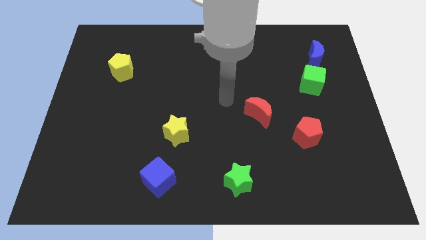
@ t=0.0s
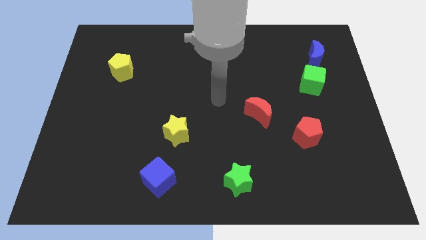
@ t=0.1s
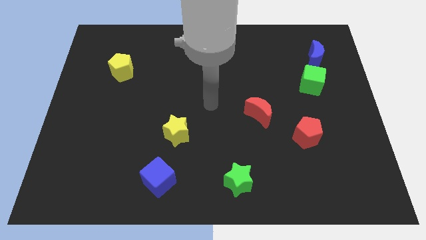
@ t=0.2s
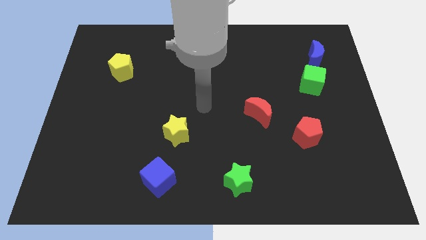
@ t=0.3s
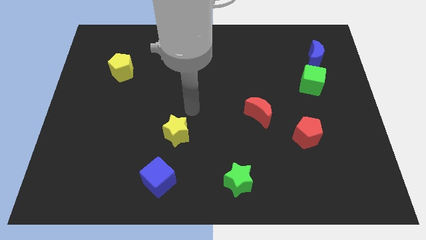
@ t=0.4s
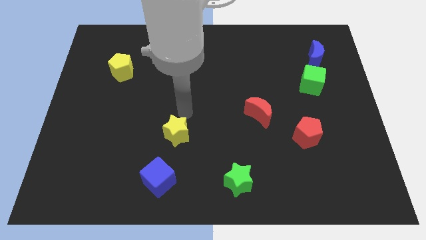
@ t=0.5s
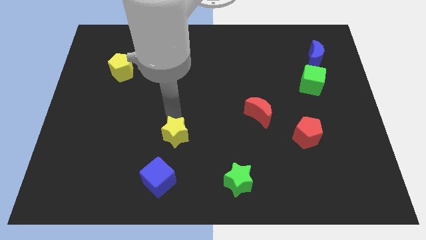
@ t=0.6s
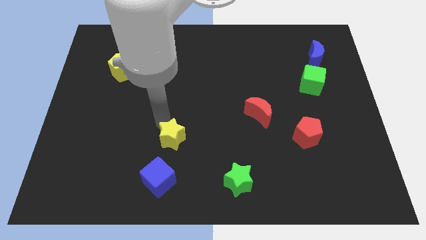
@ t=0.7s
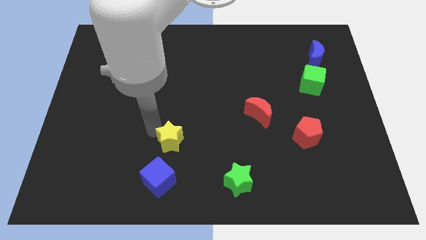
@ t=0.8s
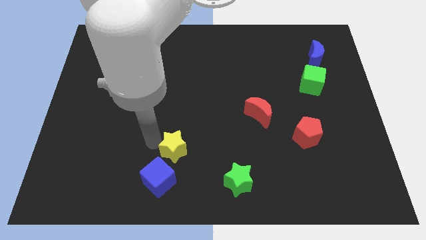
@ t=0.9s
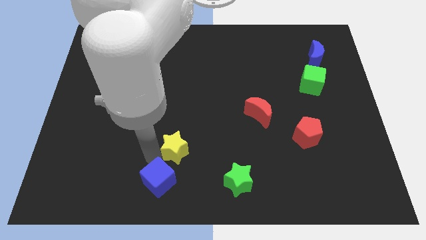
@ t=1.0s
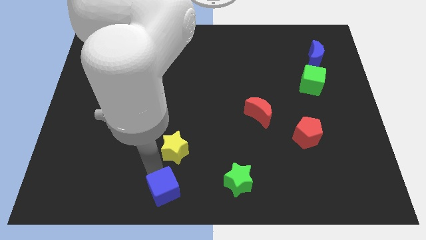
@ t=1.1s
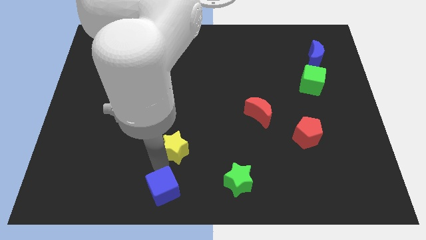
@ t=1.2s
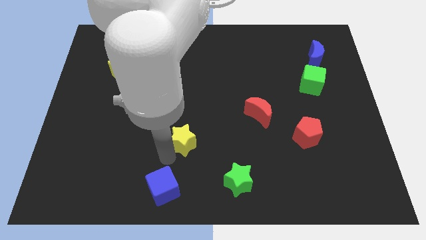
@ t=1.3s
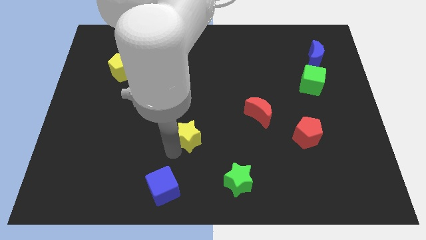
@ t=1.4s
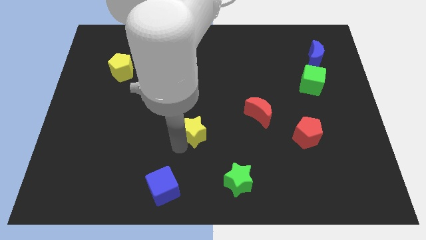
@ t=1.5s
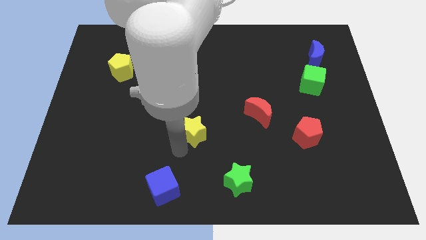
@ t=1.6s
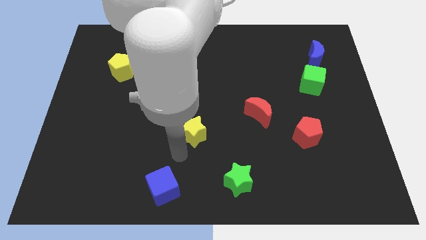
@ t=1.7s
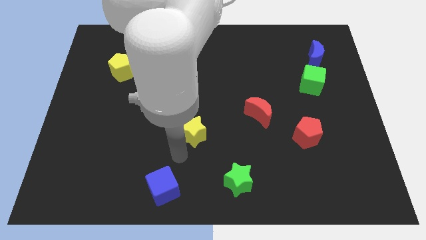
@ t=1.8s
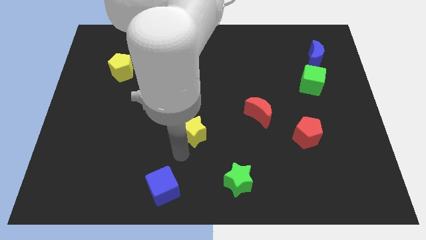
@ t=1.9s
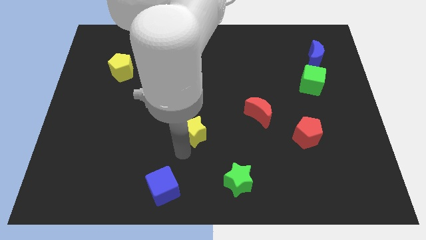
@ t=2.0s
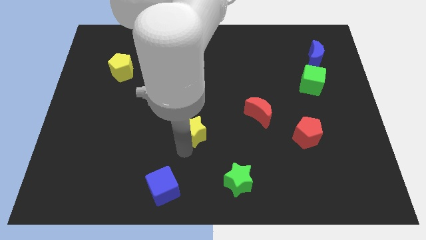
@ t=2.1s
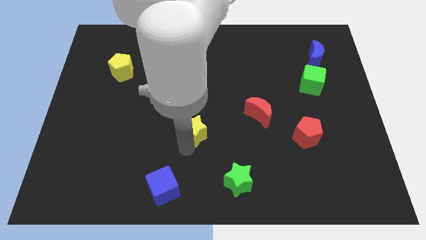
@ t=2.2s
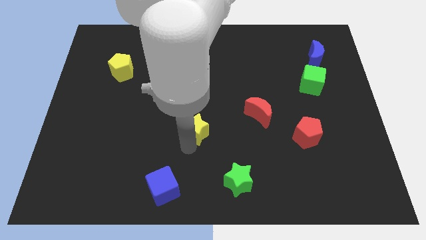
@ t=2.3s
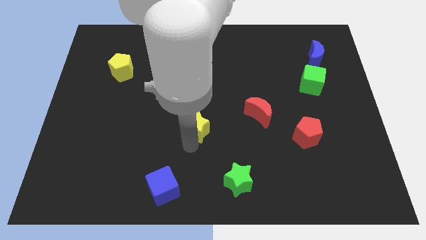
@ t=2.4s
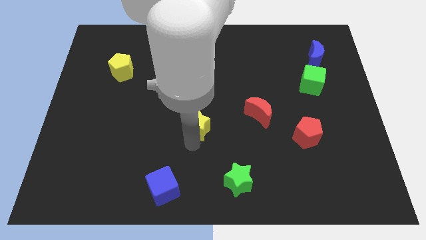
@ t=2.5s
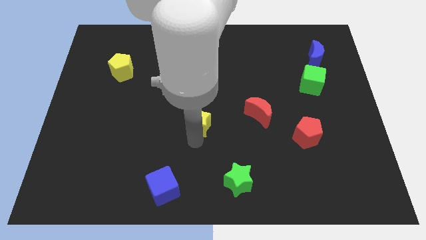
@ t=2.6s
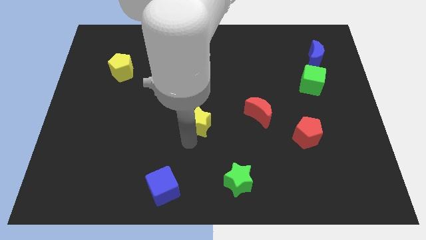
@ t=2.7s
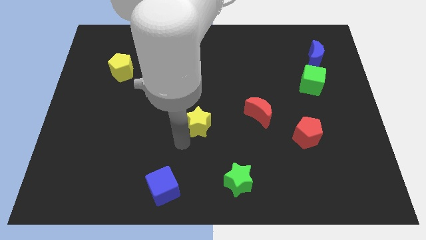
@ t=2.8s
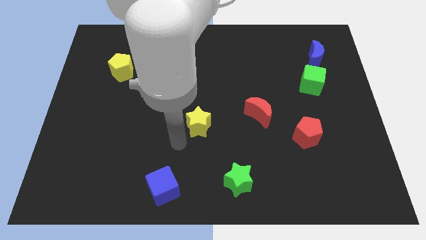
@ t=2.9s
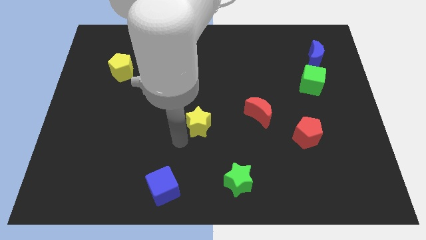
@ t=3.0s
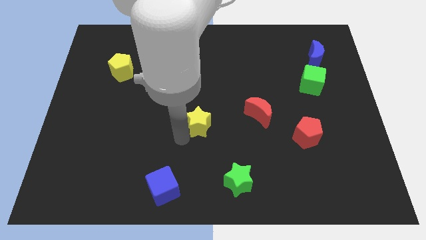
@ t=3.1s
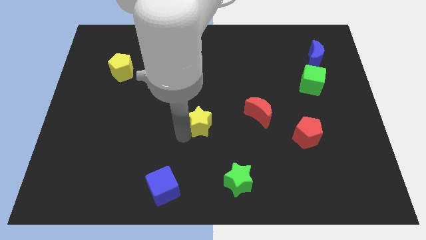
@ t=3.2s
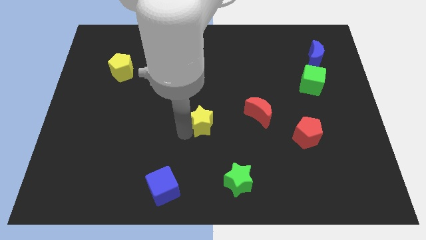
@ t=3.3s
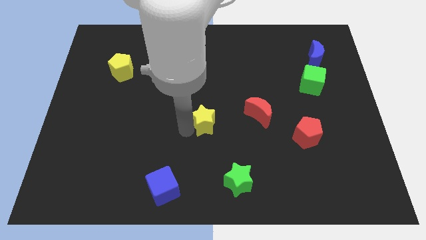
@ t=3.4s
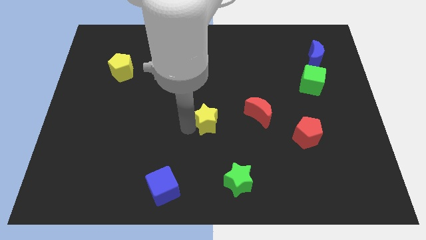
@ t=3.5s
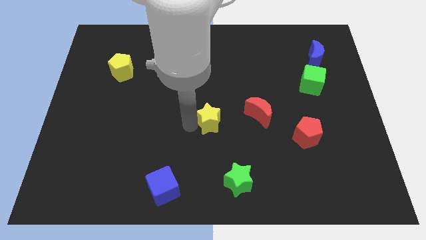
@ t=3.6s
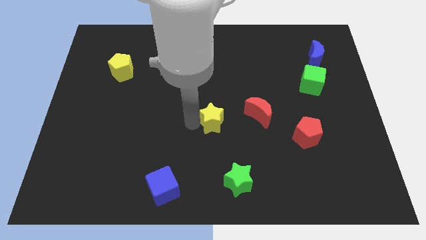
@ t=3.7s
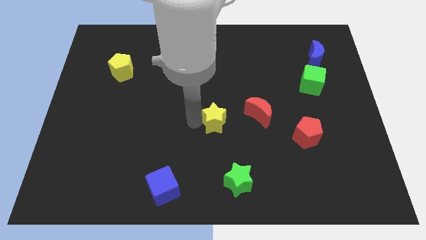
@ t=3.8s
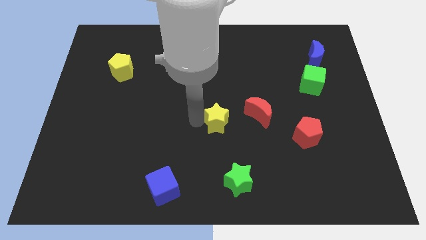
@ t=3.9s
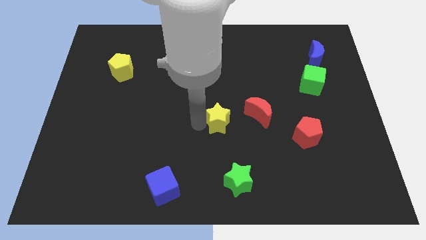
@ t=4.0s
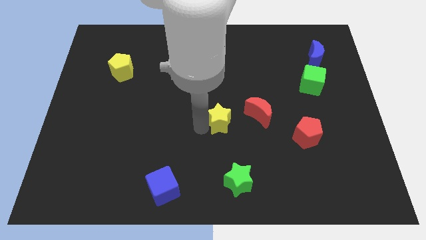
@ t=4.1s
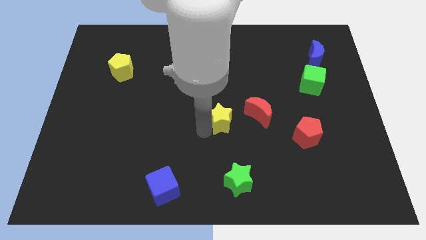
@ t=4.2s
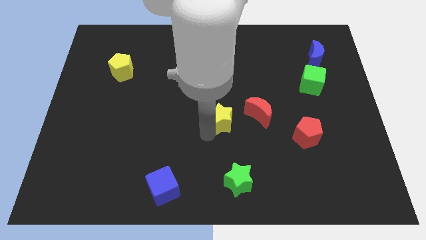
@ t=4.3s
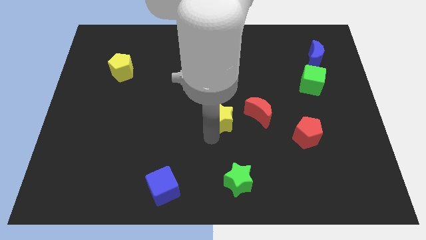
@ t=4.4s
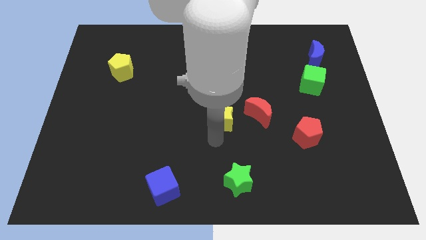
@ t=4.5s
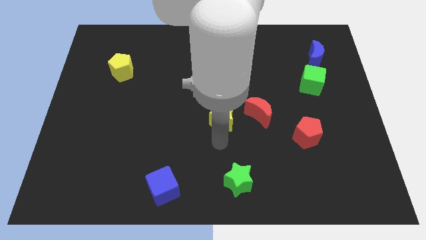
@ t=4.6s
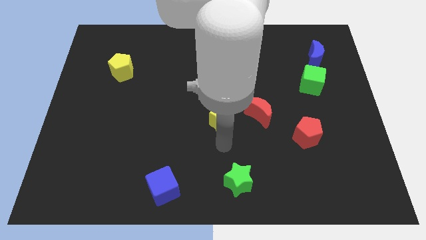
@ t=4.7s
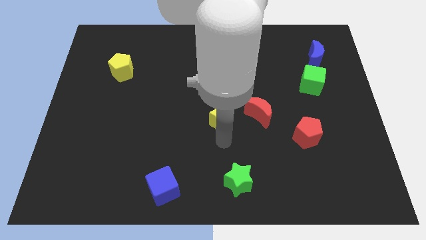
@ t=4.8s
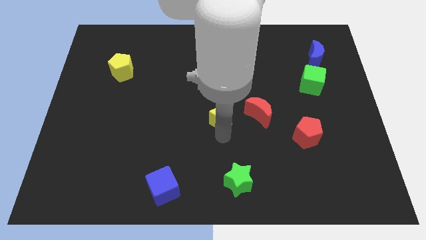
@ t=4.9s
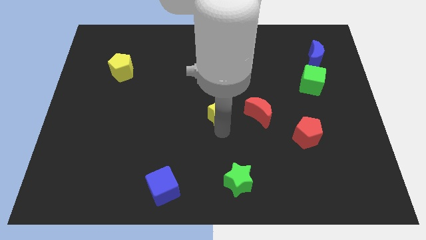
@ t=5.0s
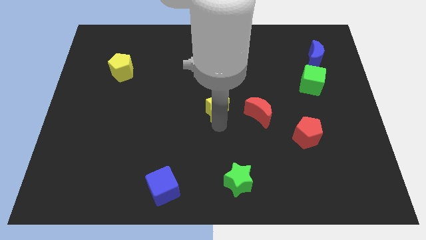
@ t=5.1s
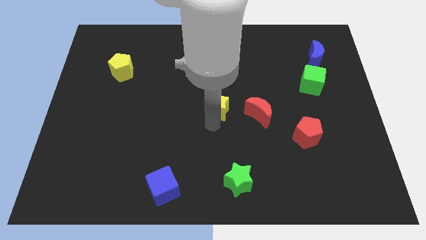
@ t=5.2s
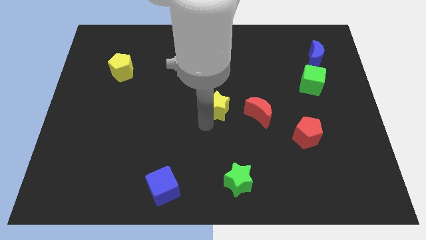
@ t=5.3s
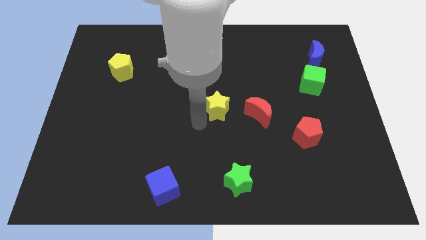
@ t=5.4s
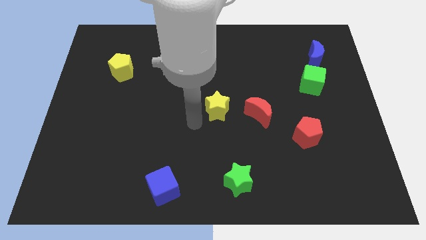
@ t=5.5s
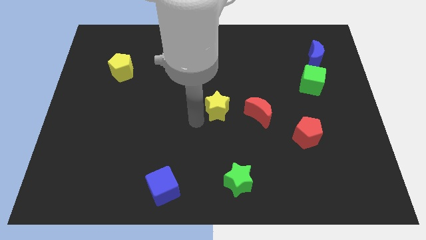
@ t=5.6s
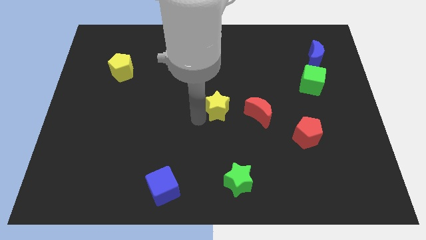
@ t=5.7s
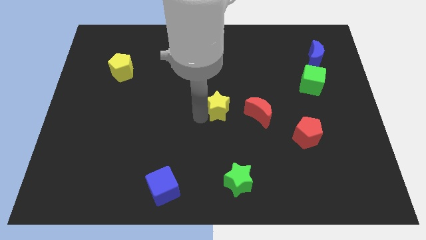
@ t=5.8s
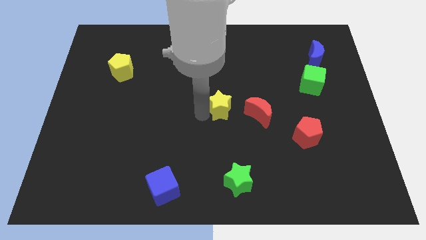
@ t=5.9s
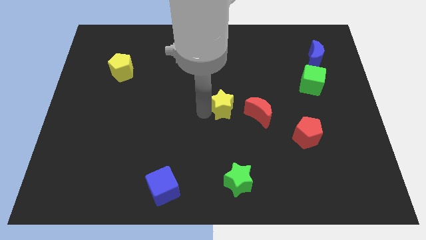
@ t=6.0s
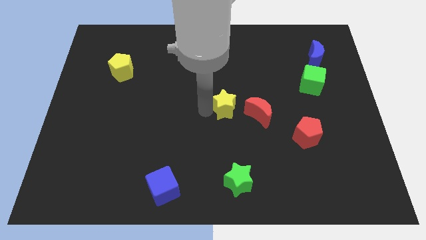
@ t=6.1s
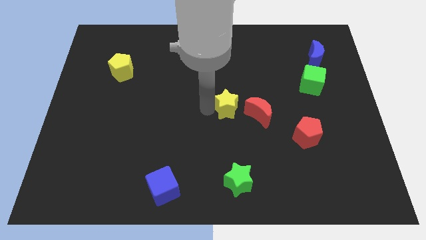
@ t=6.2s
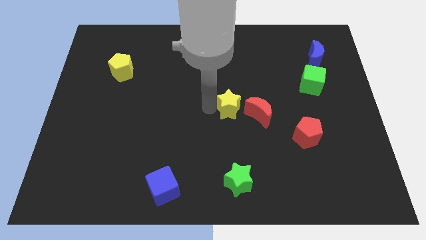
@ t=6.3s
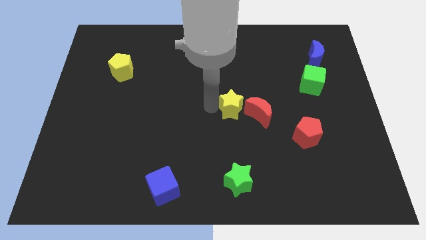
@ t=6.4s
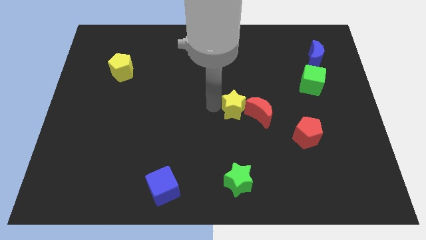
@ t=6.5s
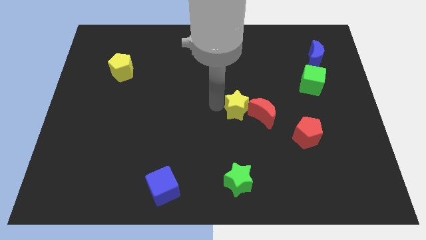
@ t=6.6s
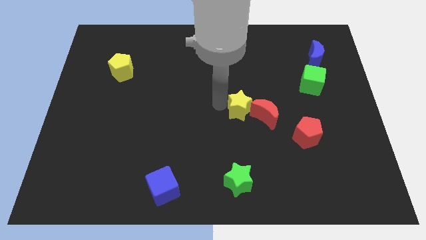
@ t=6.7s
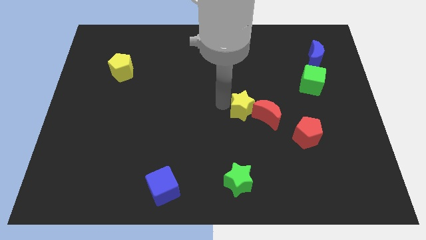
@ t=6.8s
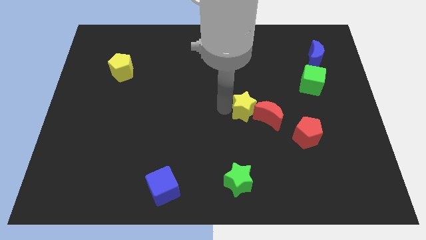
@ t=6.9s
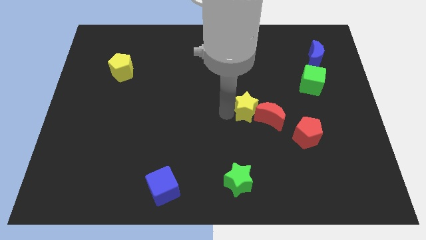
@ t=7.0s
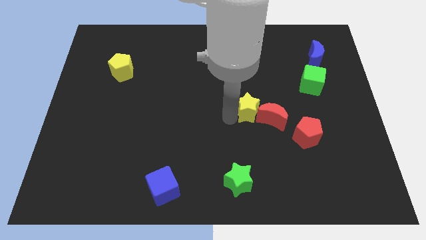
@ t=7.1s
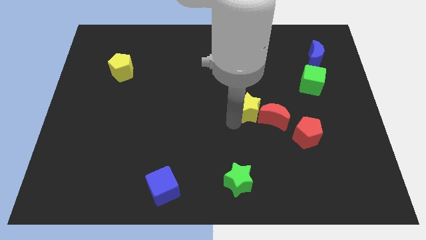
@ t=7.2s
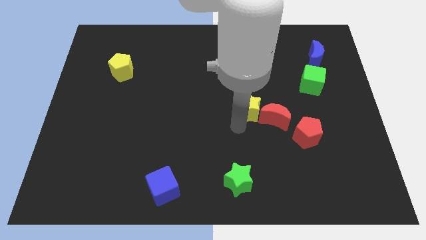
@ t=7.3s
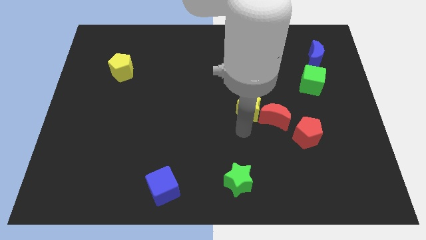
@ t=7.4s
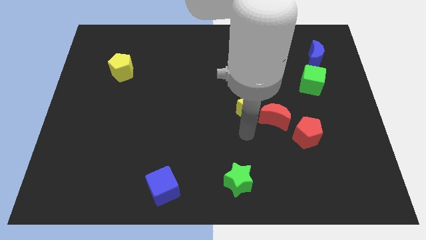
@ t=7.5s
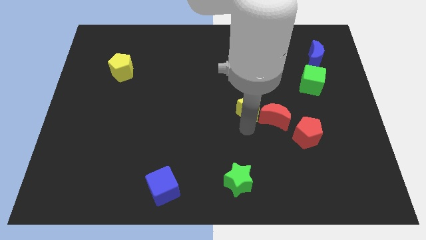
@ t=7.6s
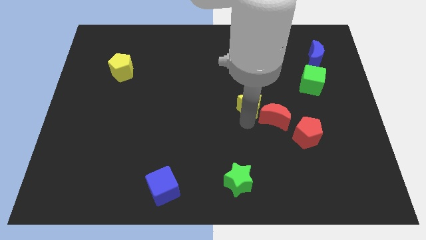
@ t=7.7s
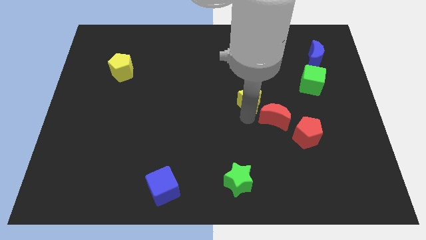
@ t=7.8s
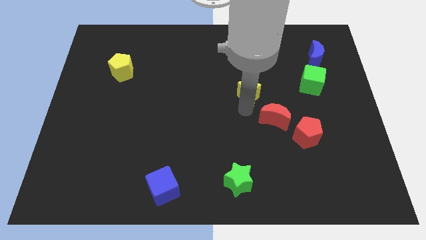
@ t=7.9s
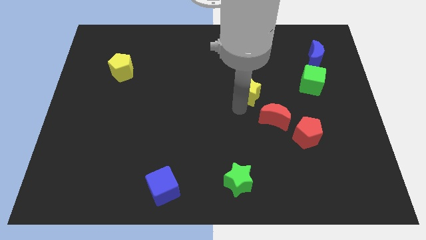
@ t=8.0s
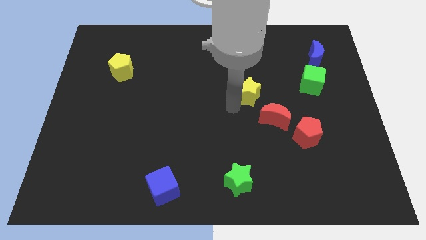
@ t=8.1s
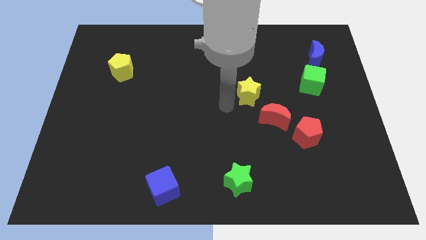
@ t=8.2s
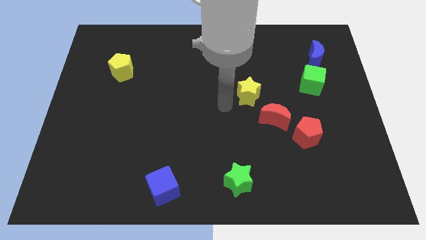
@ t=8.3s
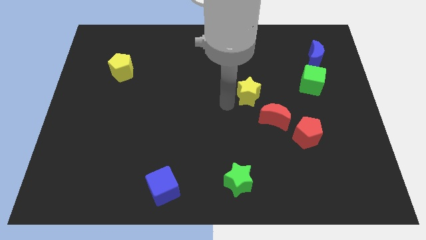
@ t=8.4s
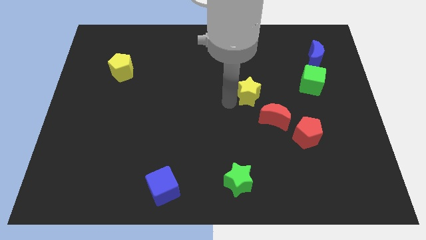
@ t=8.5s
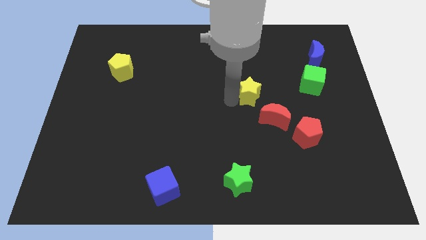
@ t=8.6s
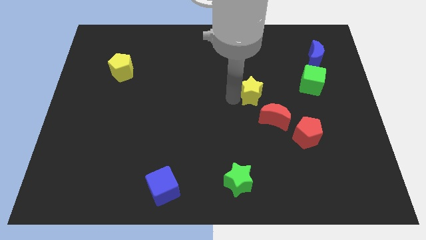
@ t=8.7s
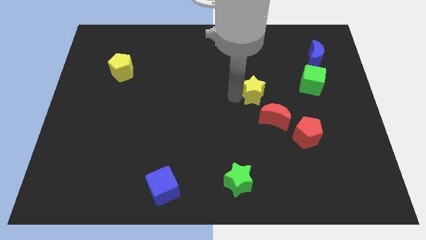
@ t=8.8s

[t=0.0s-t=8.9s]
slide the yellow star to the left side of the green cube
